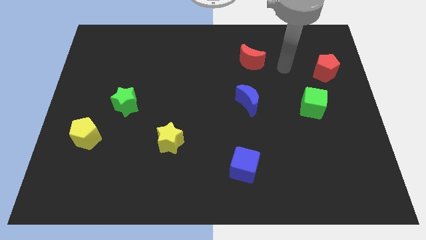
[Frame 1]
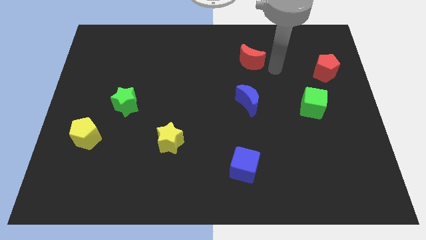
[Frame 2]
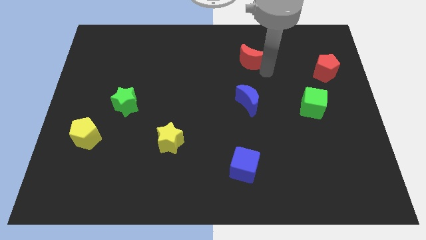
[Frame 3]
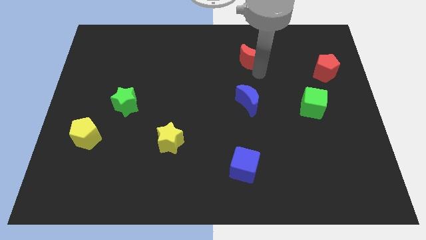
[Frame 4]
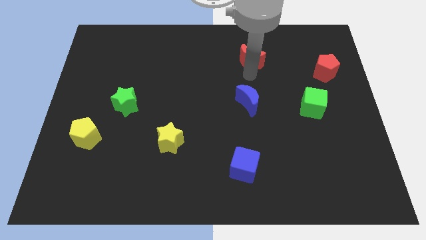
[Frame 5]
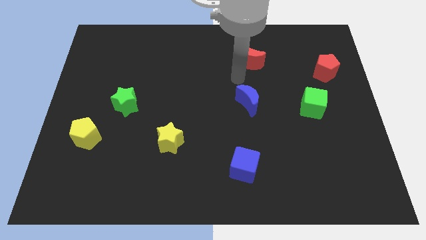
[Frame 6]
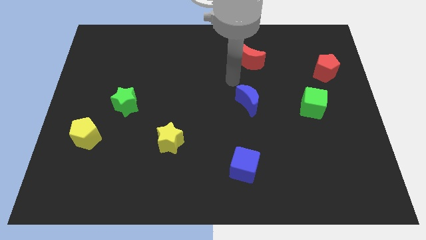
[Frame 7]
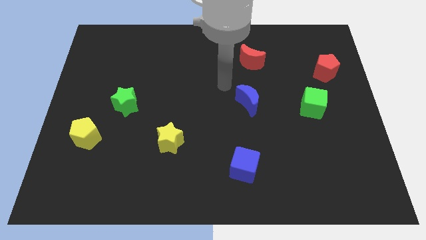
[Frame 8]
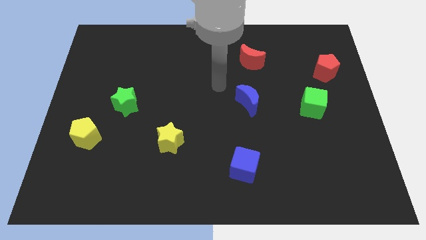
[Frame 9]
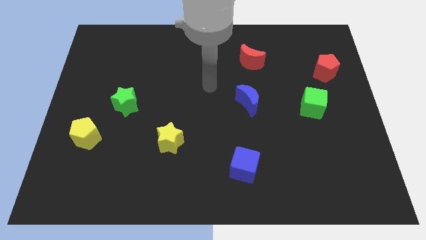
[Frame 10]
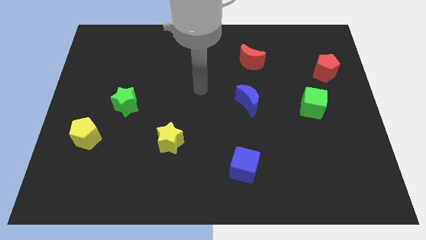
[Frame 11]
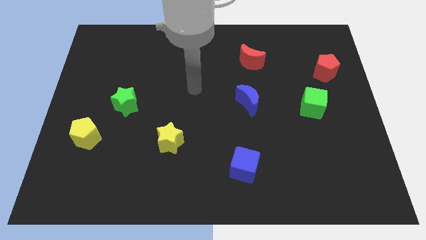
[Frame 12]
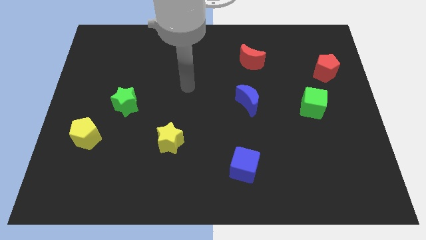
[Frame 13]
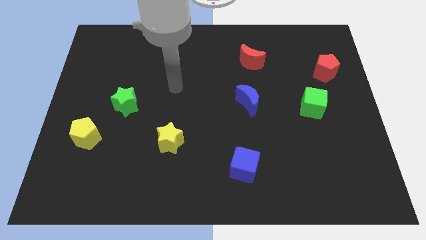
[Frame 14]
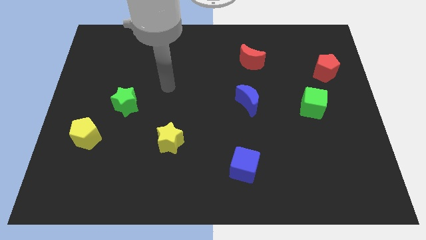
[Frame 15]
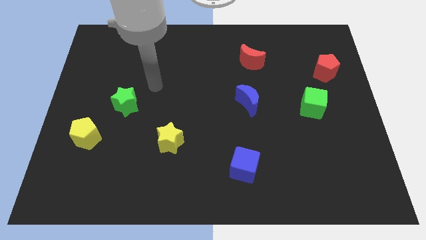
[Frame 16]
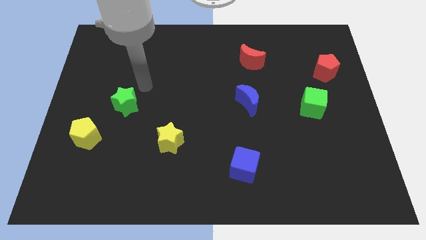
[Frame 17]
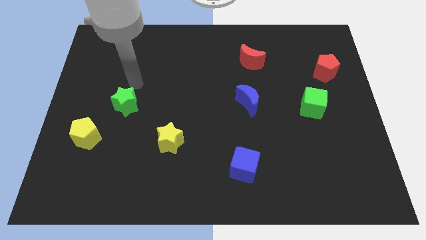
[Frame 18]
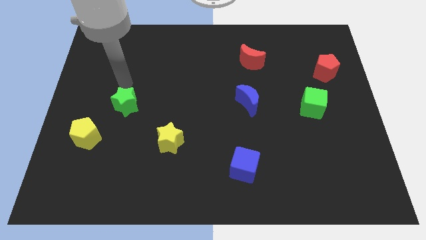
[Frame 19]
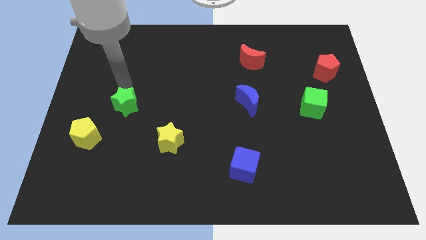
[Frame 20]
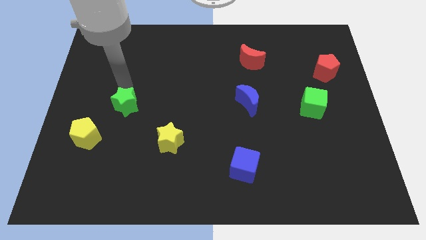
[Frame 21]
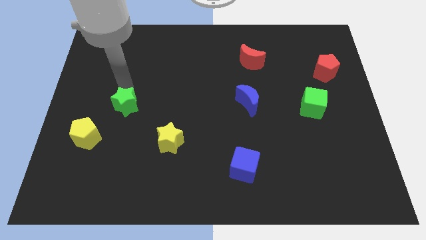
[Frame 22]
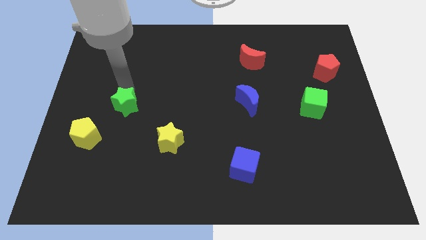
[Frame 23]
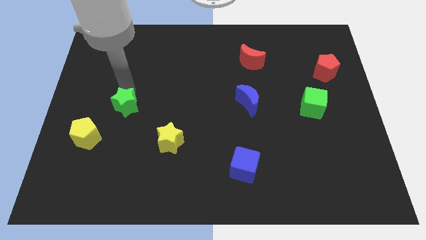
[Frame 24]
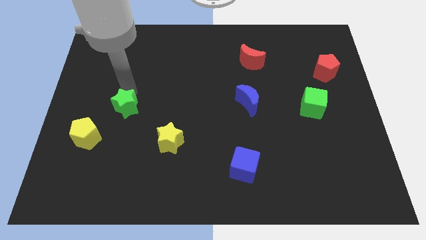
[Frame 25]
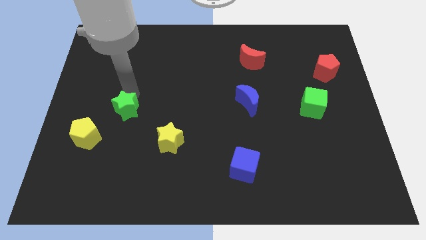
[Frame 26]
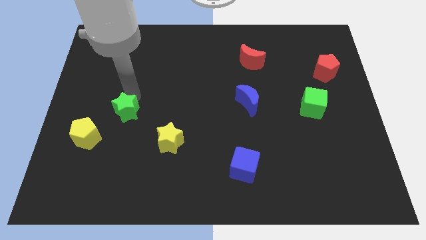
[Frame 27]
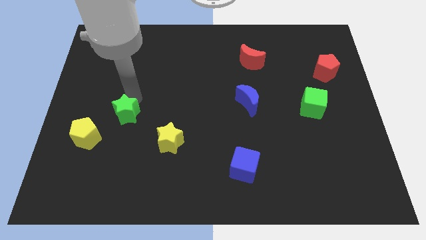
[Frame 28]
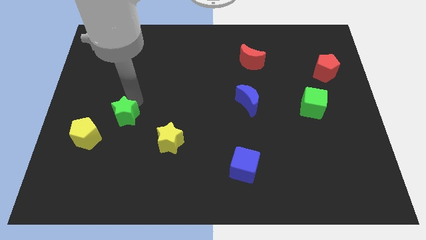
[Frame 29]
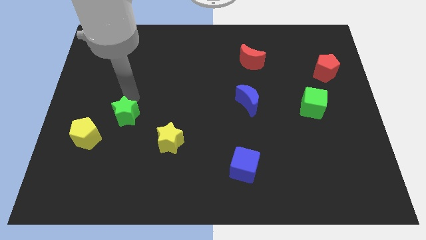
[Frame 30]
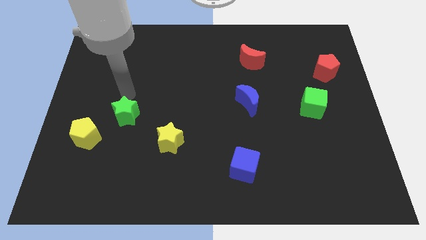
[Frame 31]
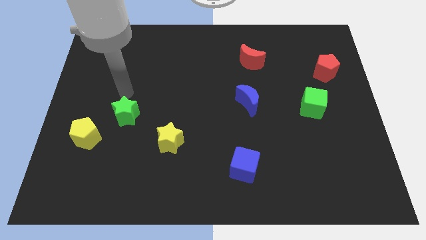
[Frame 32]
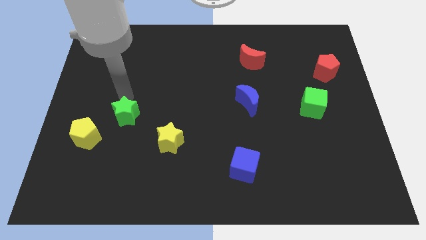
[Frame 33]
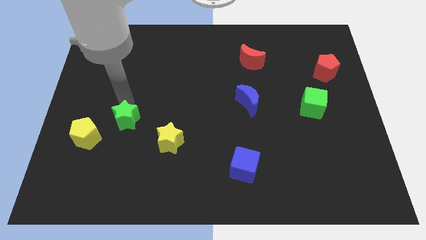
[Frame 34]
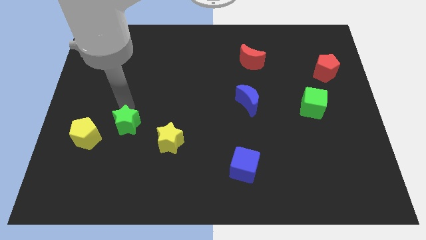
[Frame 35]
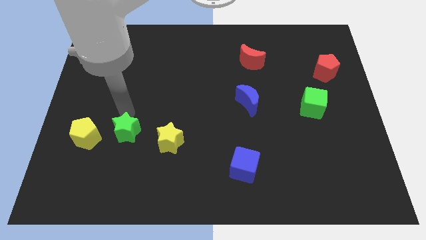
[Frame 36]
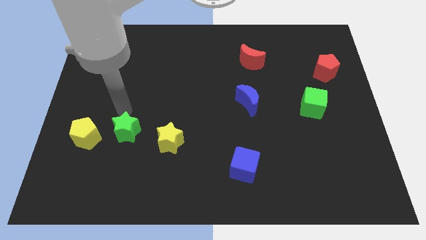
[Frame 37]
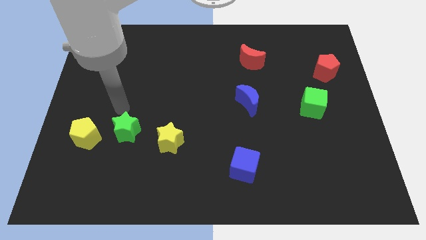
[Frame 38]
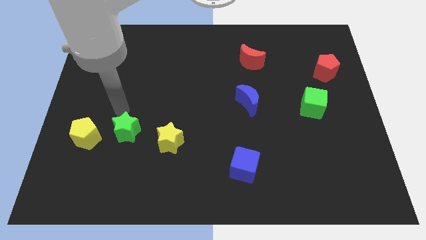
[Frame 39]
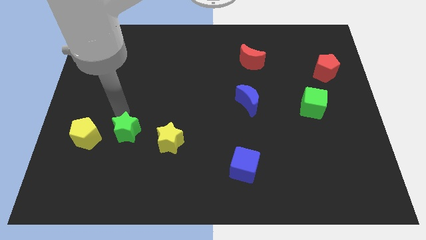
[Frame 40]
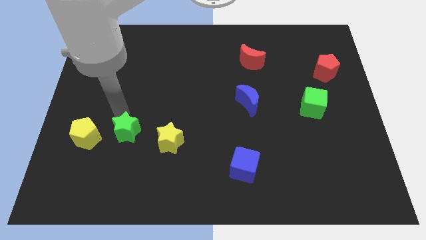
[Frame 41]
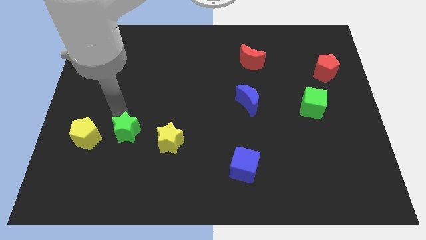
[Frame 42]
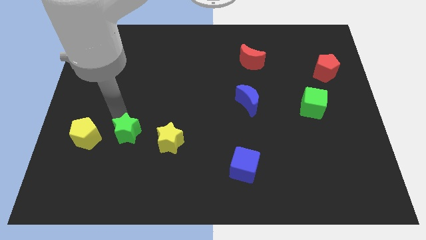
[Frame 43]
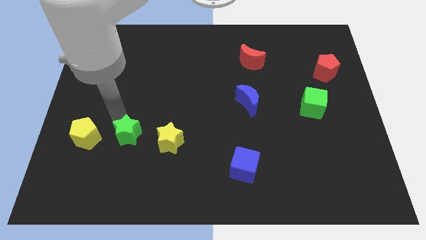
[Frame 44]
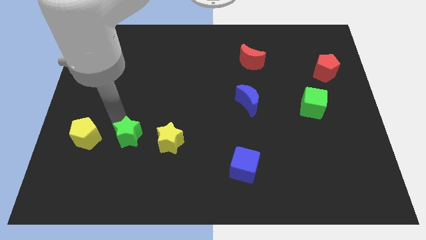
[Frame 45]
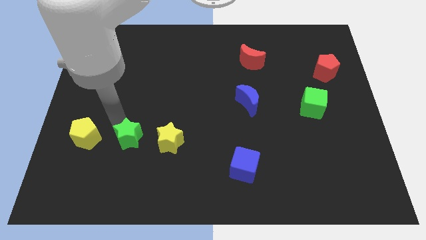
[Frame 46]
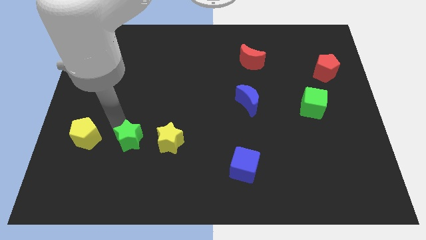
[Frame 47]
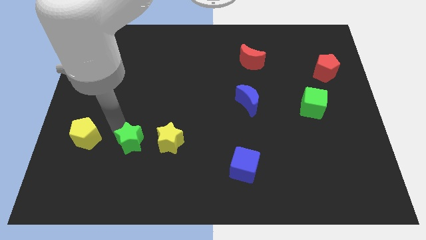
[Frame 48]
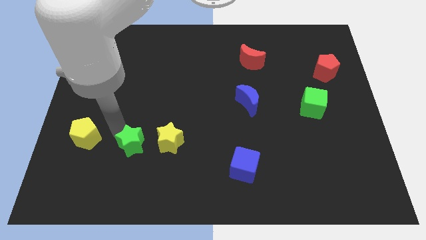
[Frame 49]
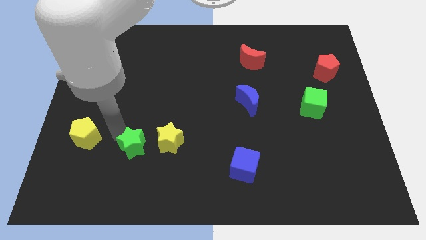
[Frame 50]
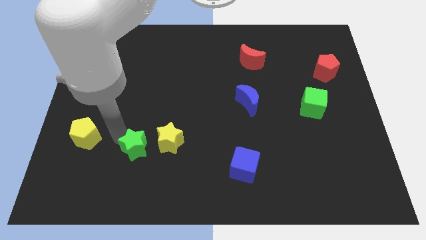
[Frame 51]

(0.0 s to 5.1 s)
put the green star to the bottom left of the yellow star

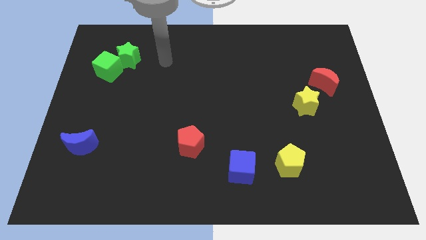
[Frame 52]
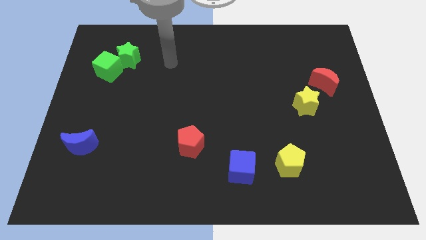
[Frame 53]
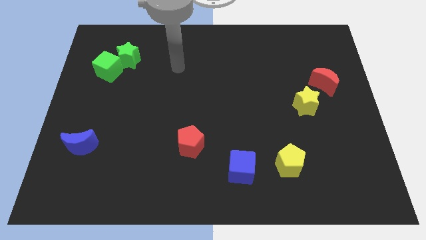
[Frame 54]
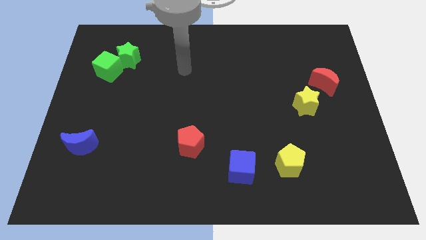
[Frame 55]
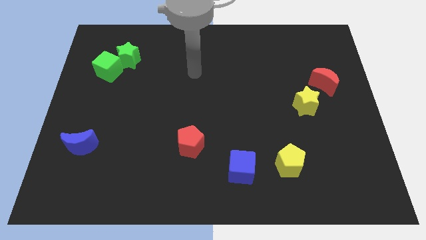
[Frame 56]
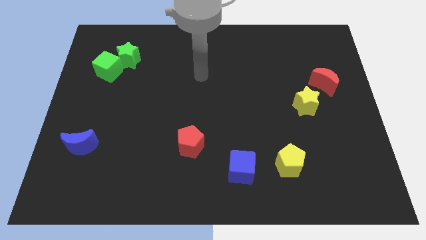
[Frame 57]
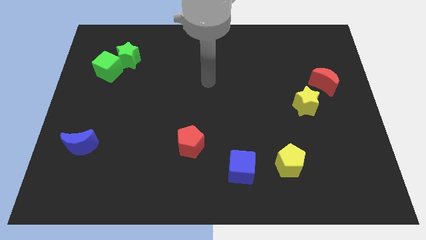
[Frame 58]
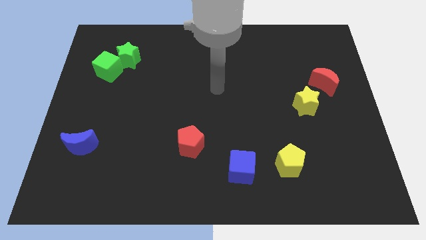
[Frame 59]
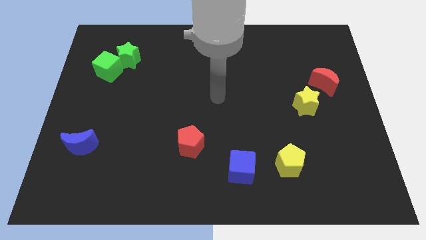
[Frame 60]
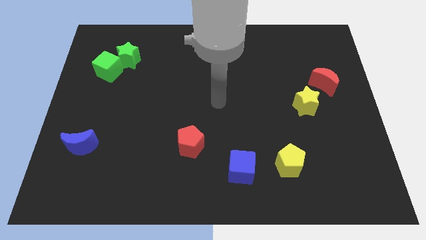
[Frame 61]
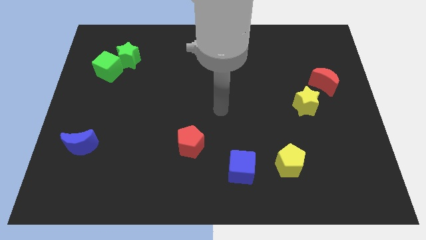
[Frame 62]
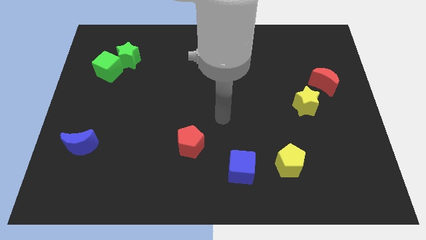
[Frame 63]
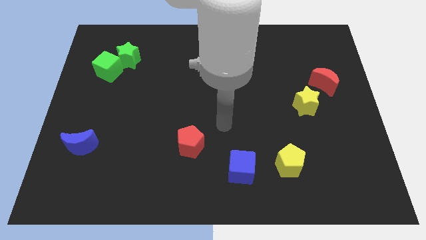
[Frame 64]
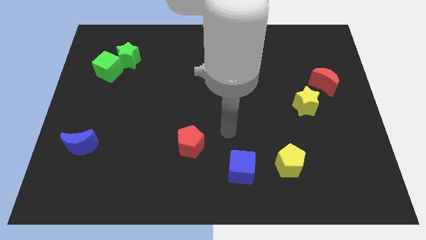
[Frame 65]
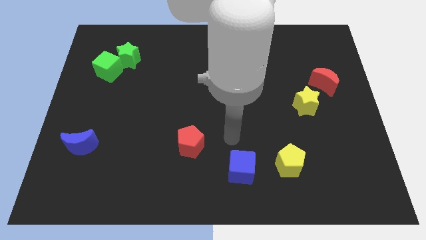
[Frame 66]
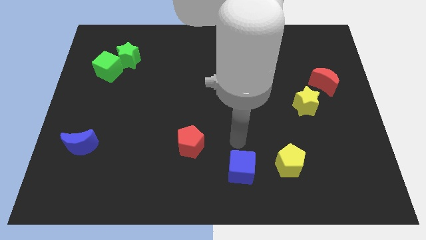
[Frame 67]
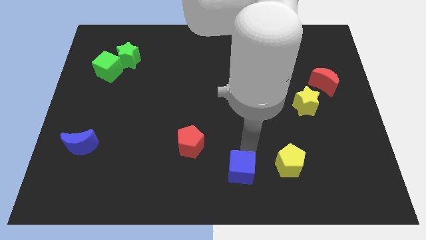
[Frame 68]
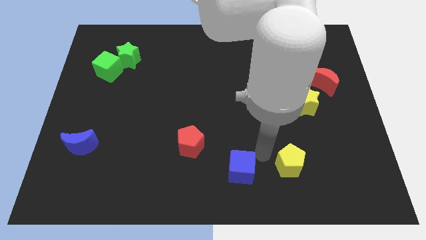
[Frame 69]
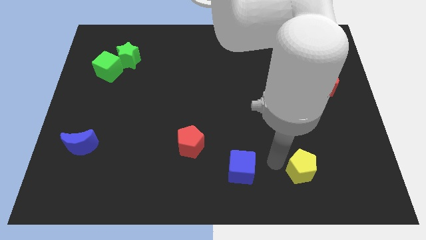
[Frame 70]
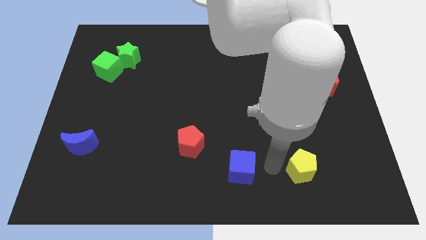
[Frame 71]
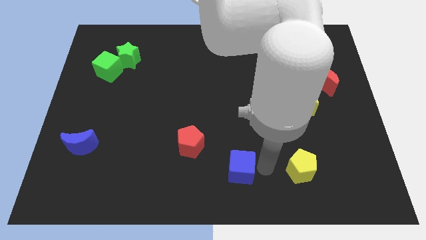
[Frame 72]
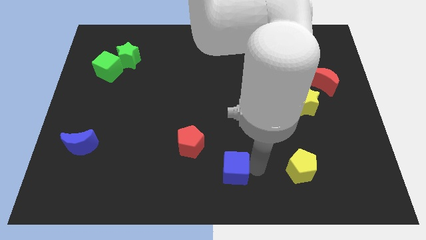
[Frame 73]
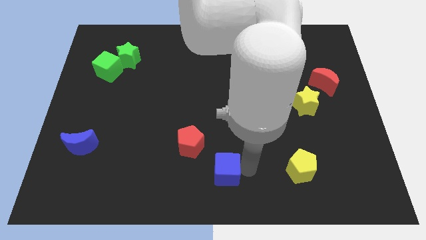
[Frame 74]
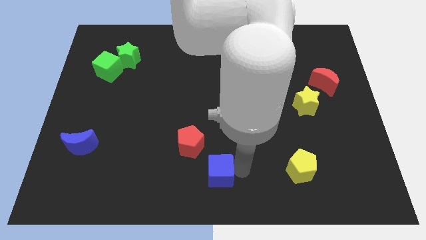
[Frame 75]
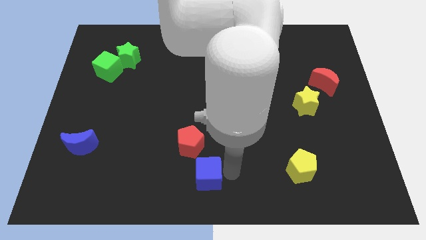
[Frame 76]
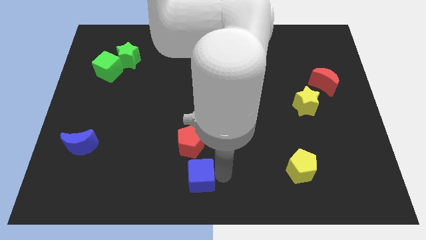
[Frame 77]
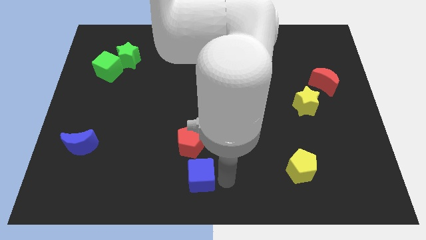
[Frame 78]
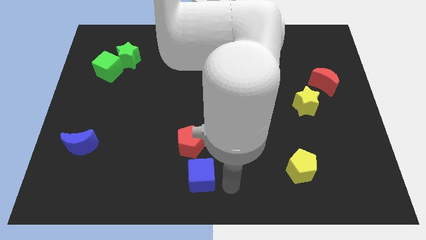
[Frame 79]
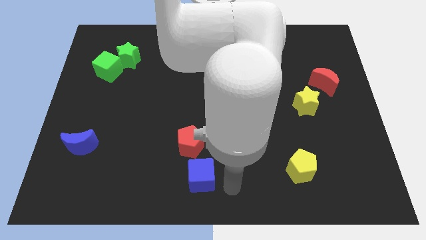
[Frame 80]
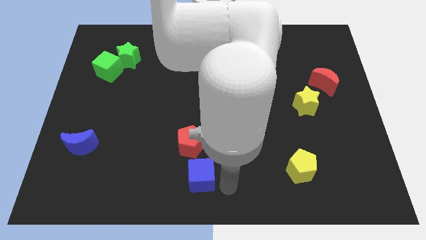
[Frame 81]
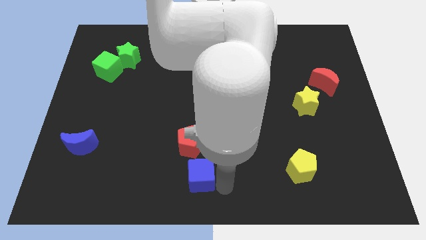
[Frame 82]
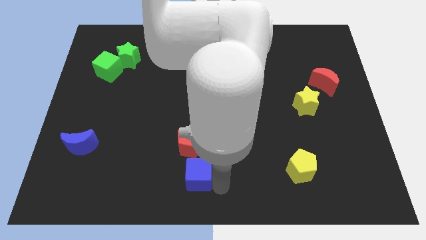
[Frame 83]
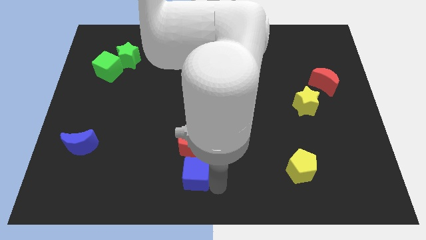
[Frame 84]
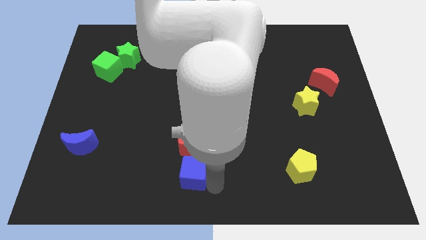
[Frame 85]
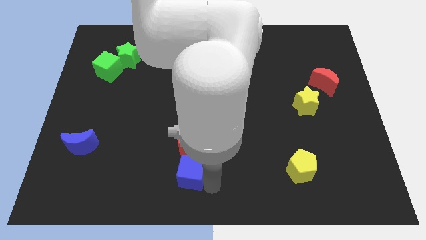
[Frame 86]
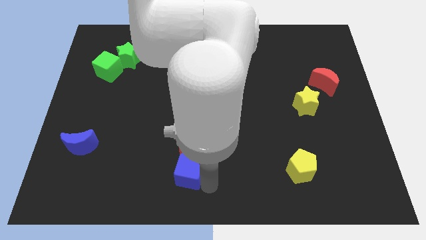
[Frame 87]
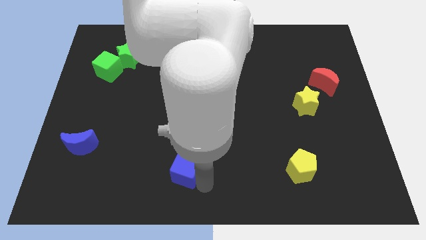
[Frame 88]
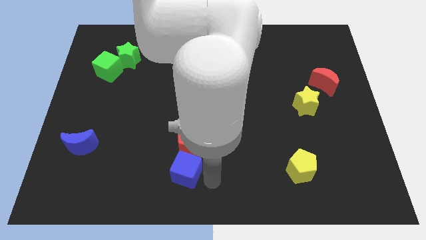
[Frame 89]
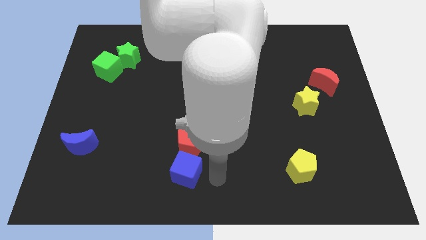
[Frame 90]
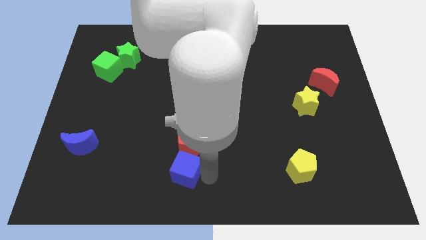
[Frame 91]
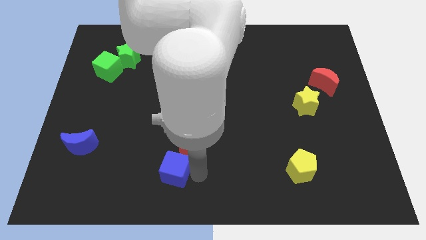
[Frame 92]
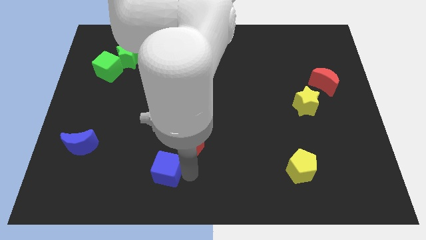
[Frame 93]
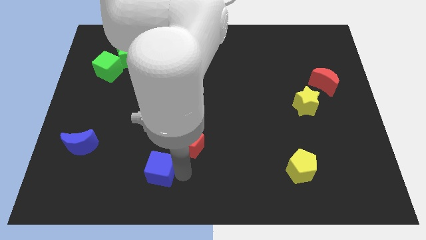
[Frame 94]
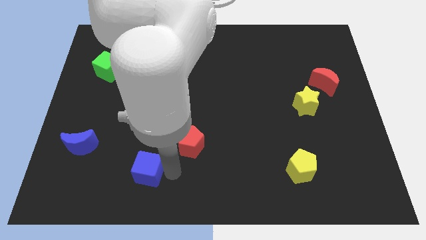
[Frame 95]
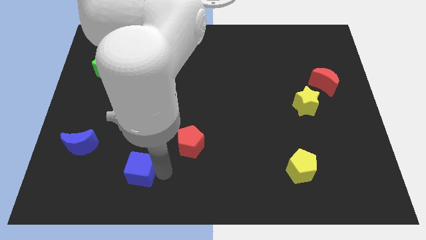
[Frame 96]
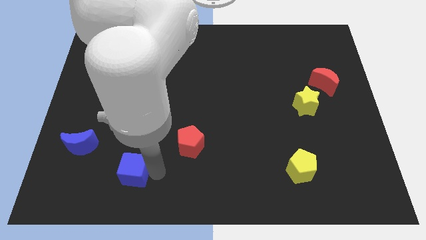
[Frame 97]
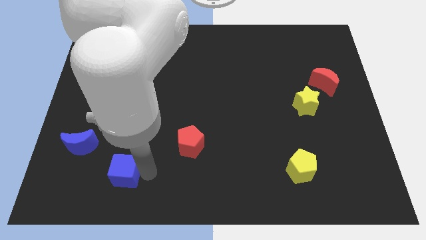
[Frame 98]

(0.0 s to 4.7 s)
put the blue cube diagonally down and to the right of the blue moon
